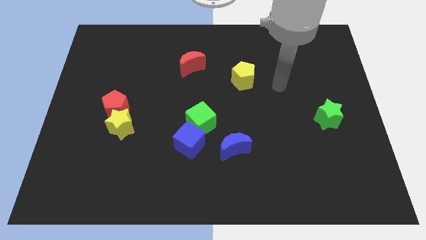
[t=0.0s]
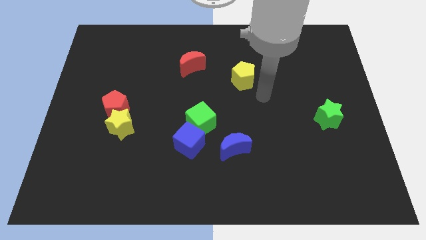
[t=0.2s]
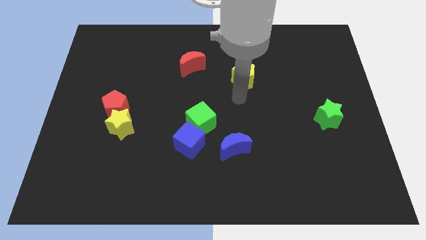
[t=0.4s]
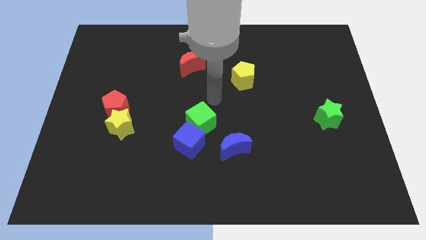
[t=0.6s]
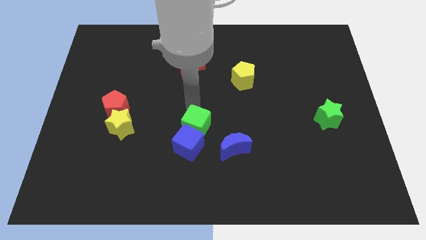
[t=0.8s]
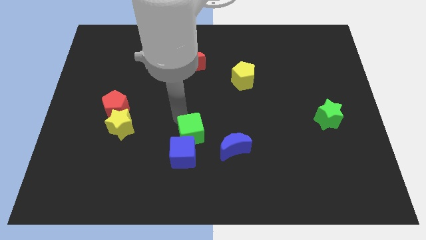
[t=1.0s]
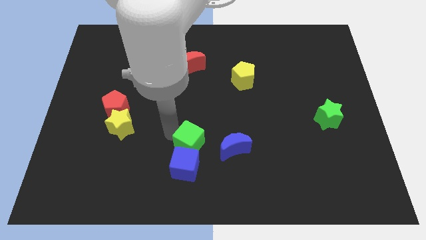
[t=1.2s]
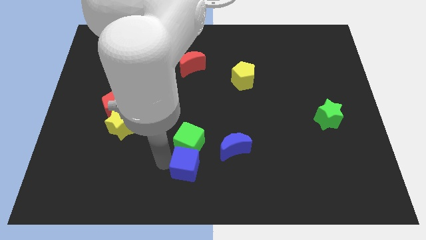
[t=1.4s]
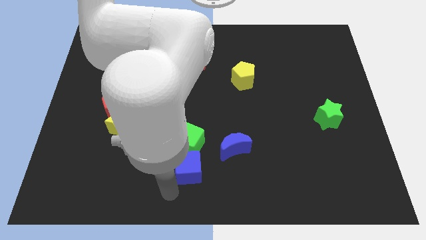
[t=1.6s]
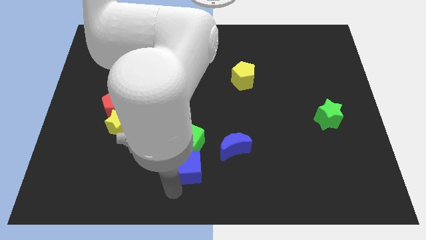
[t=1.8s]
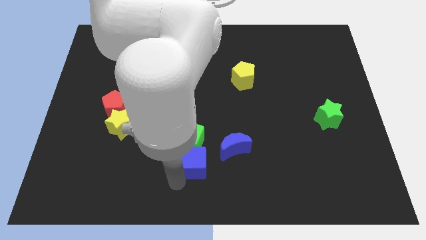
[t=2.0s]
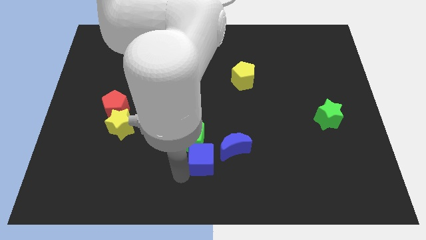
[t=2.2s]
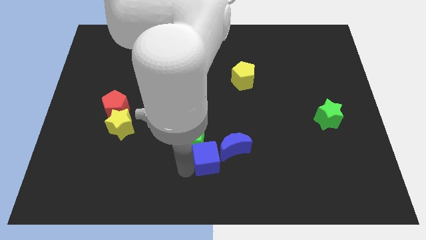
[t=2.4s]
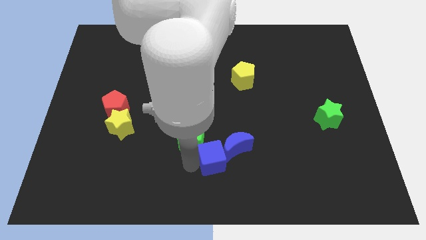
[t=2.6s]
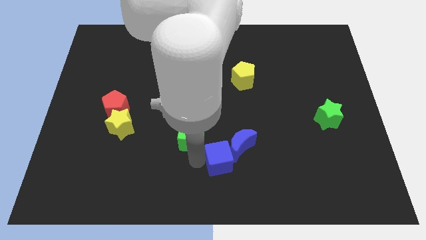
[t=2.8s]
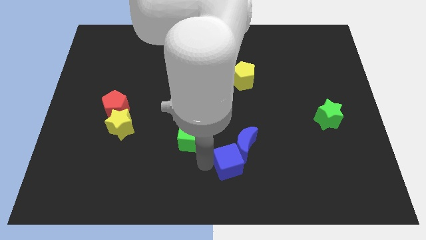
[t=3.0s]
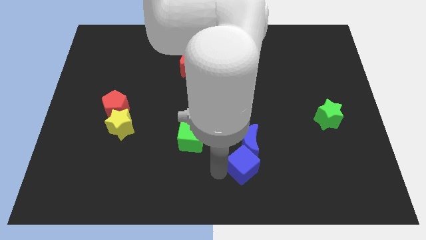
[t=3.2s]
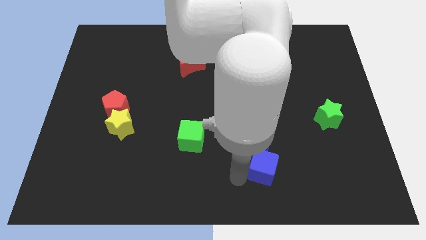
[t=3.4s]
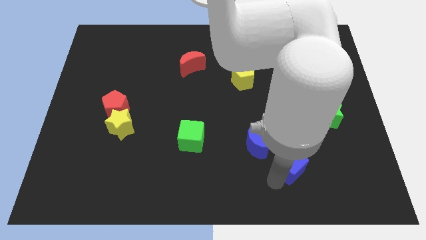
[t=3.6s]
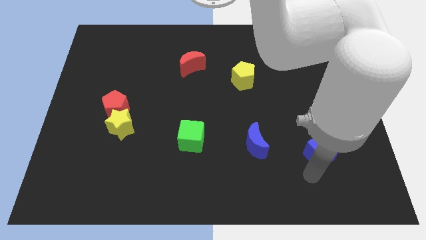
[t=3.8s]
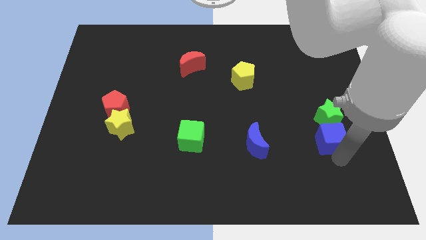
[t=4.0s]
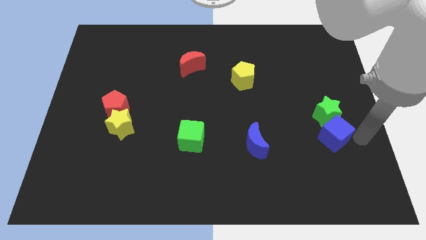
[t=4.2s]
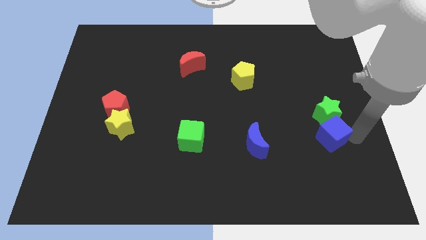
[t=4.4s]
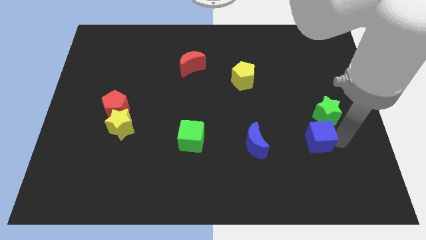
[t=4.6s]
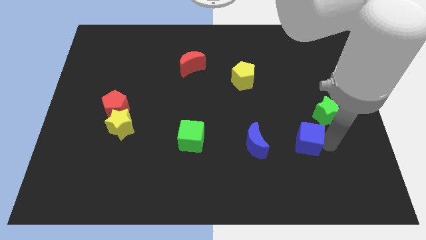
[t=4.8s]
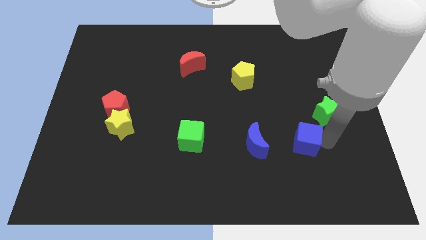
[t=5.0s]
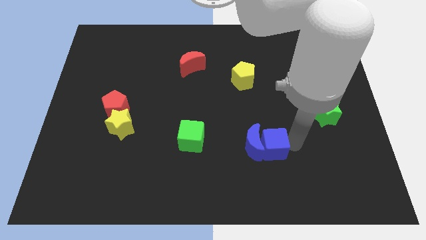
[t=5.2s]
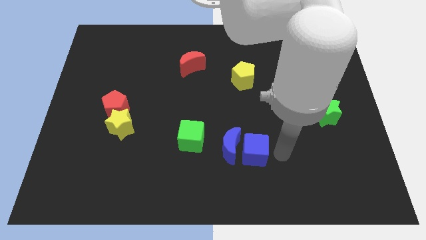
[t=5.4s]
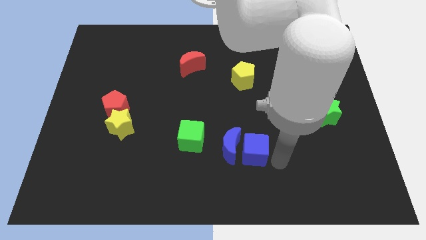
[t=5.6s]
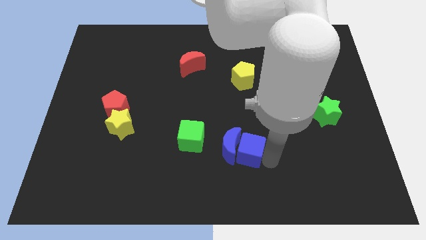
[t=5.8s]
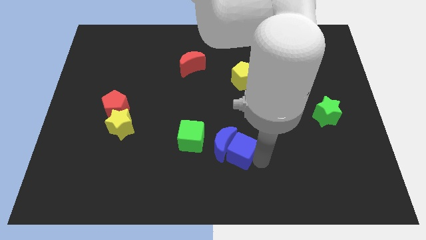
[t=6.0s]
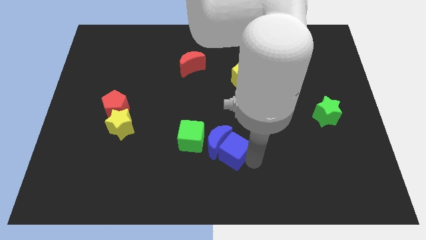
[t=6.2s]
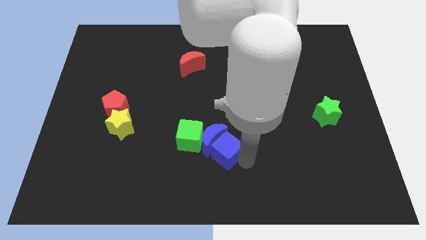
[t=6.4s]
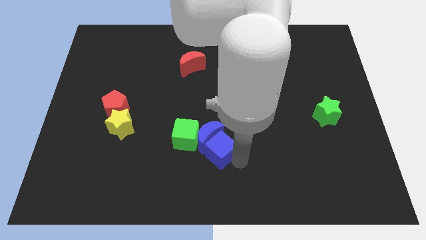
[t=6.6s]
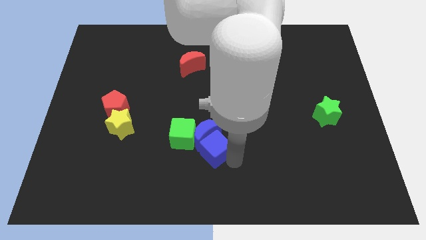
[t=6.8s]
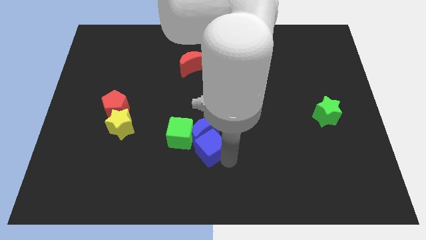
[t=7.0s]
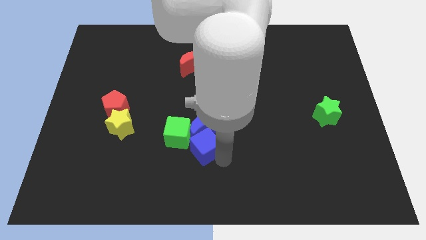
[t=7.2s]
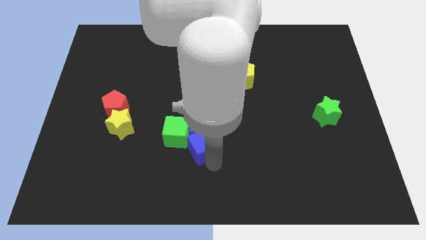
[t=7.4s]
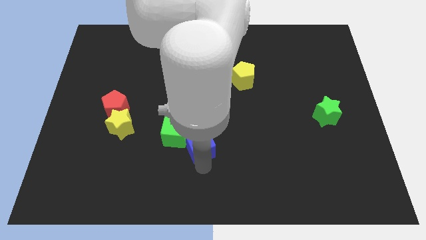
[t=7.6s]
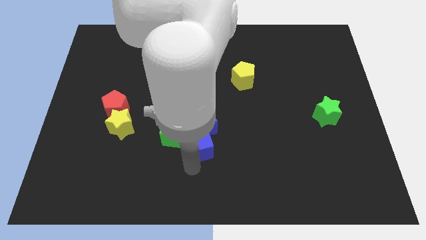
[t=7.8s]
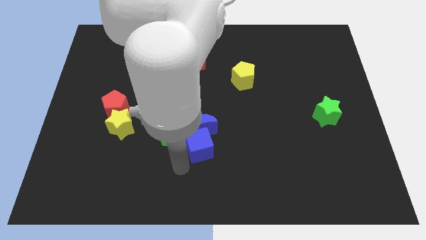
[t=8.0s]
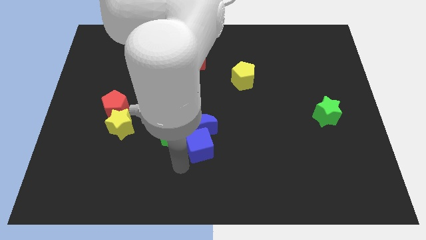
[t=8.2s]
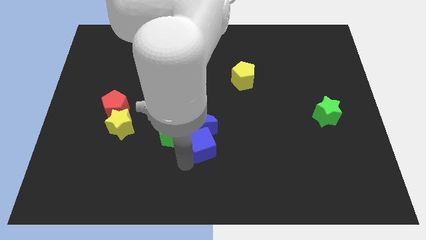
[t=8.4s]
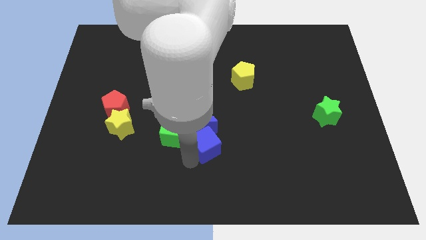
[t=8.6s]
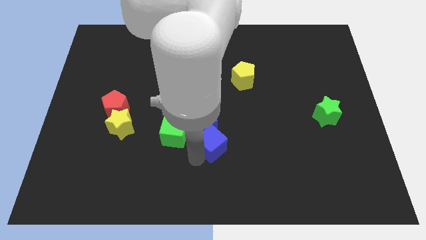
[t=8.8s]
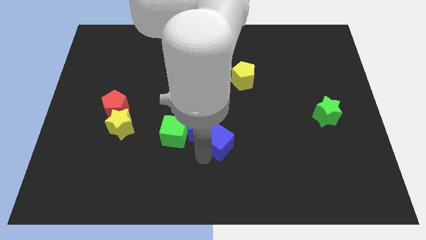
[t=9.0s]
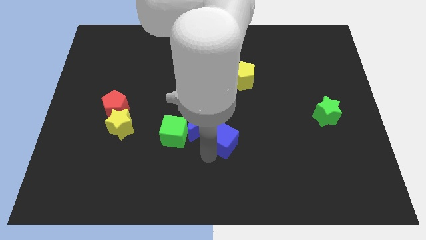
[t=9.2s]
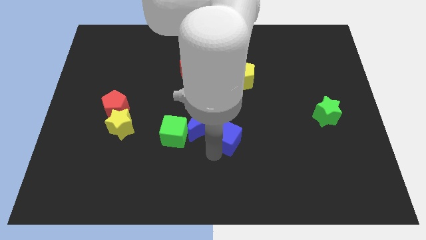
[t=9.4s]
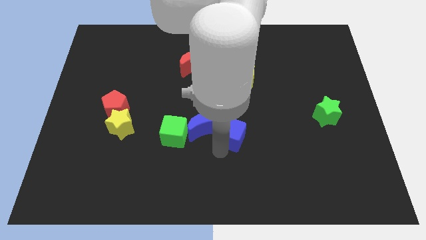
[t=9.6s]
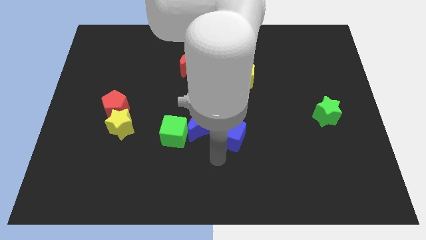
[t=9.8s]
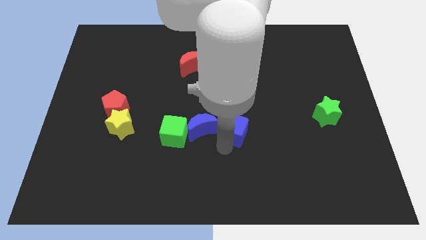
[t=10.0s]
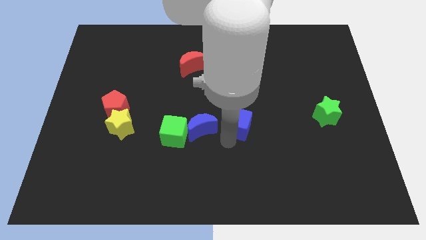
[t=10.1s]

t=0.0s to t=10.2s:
slide the blue cube to the bottom side of the yellow pentagon

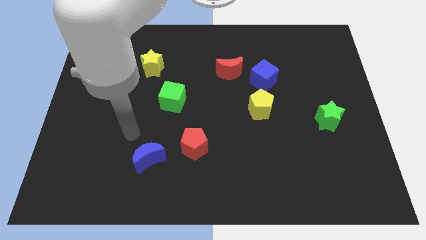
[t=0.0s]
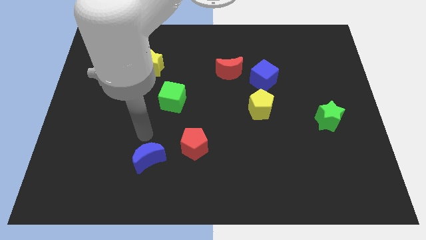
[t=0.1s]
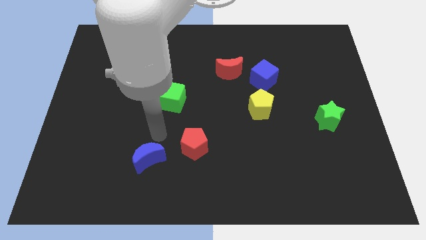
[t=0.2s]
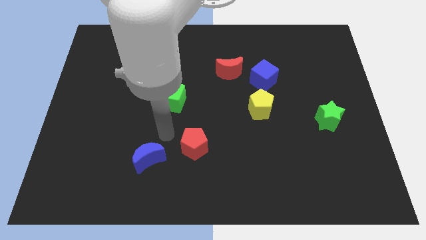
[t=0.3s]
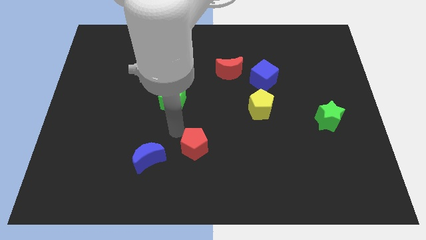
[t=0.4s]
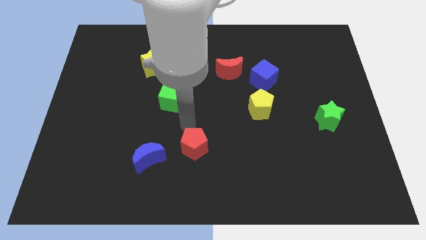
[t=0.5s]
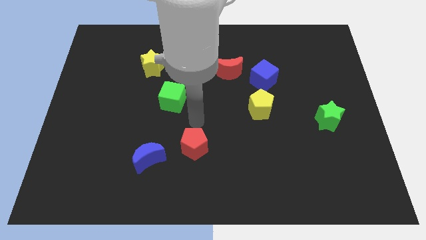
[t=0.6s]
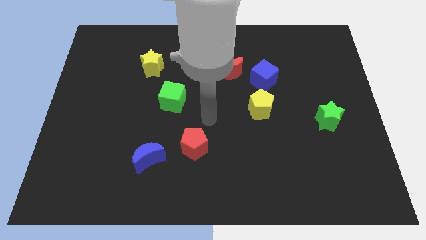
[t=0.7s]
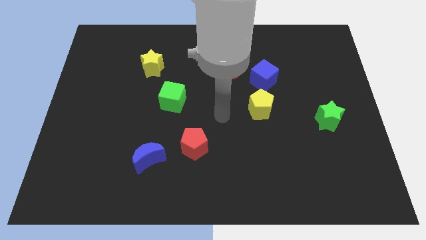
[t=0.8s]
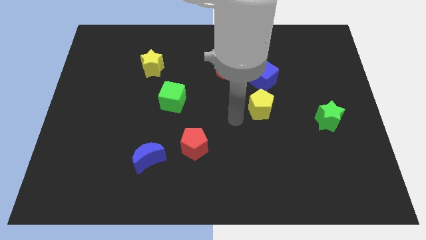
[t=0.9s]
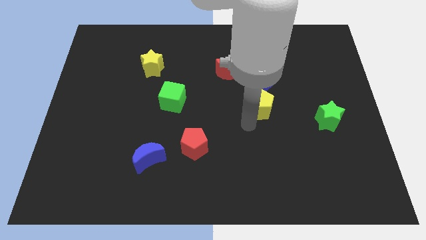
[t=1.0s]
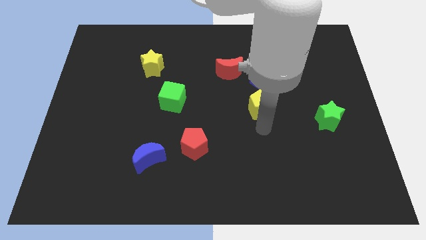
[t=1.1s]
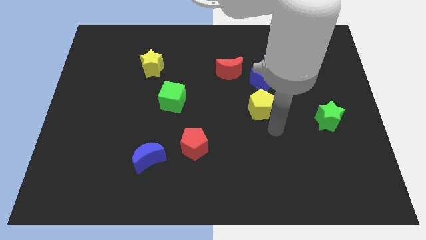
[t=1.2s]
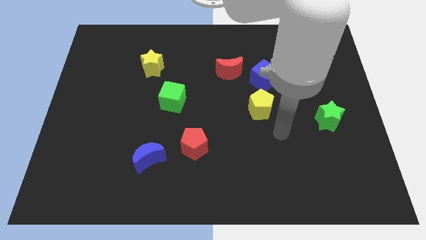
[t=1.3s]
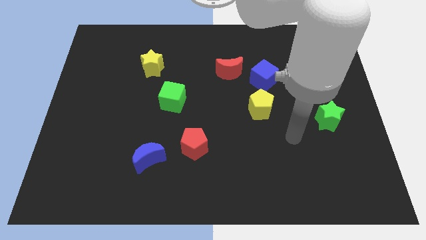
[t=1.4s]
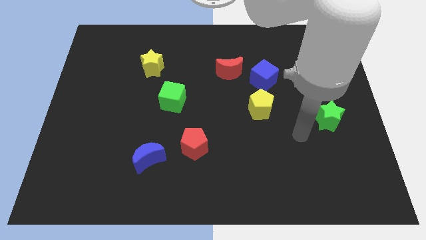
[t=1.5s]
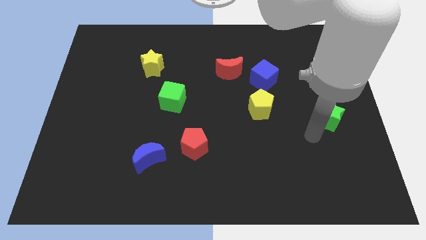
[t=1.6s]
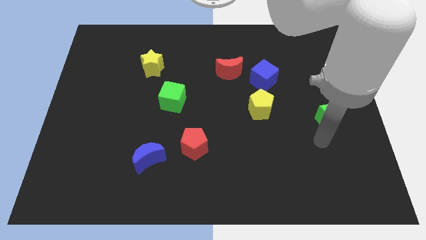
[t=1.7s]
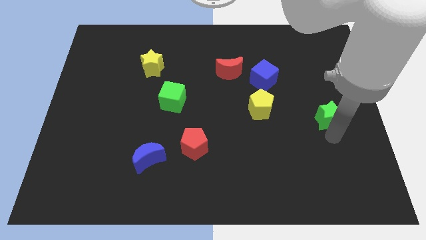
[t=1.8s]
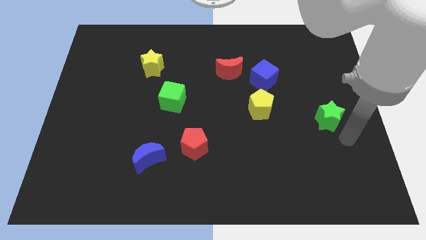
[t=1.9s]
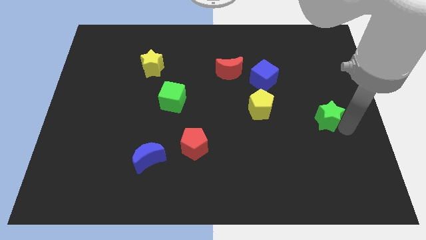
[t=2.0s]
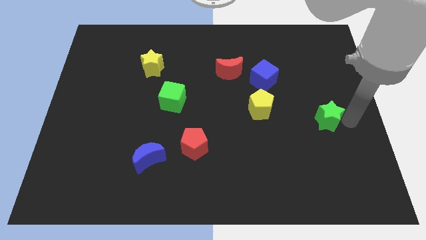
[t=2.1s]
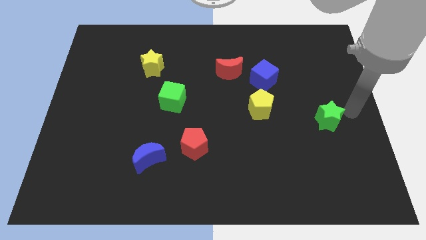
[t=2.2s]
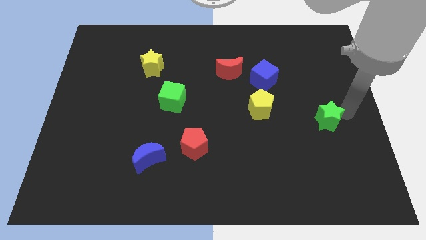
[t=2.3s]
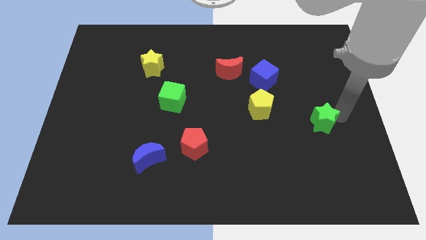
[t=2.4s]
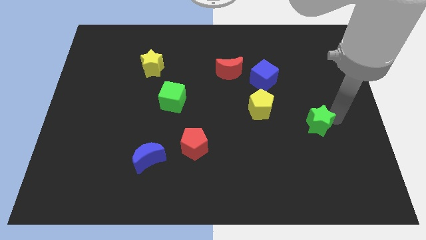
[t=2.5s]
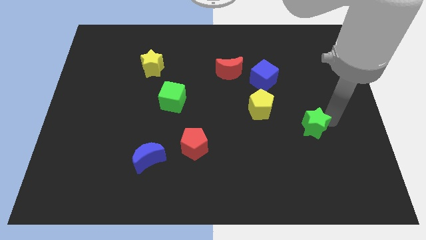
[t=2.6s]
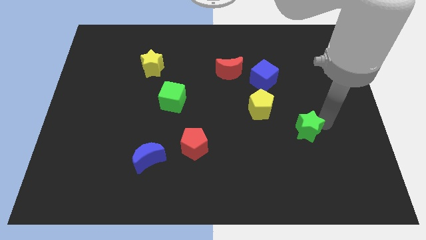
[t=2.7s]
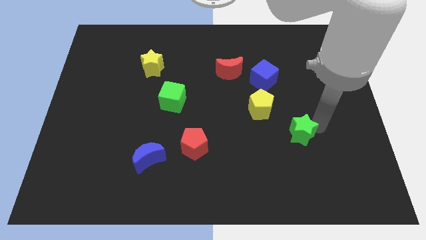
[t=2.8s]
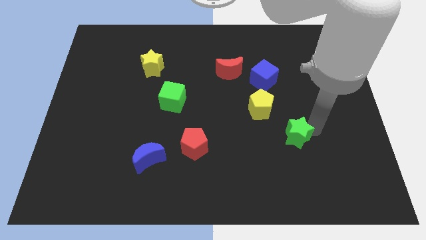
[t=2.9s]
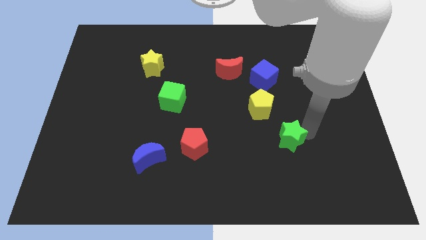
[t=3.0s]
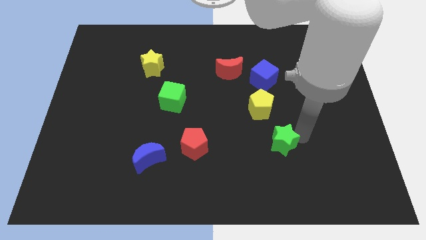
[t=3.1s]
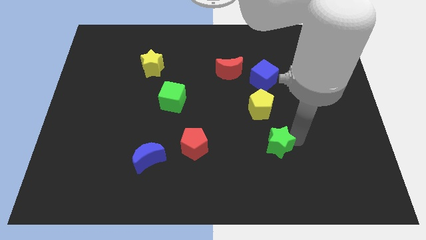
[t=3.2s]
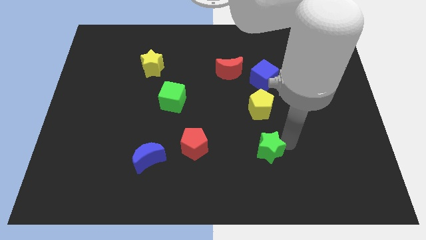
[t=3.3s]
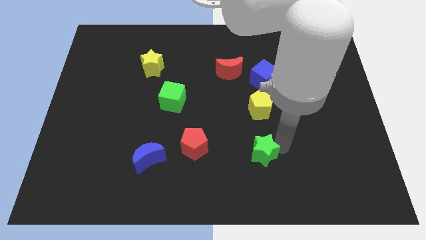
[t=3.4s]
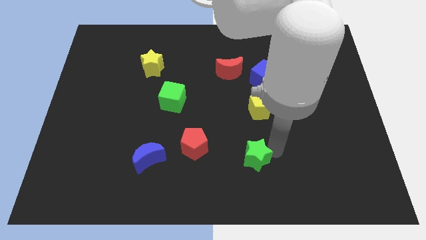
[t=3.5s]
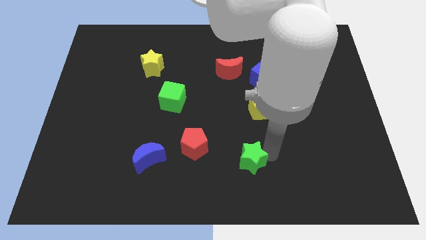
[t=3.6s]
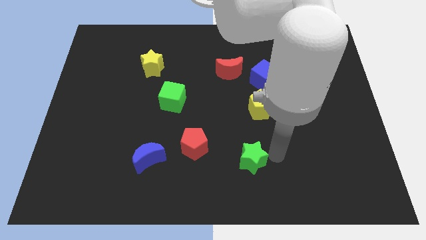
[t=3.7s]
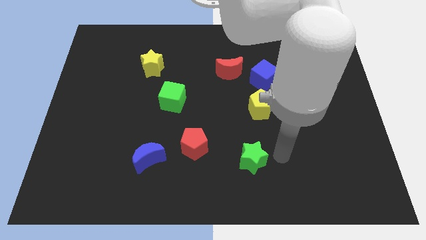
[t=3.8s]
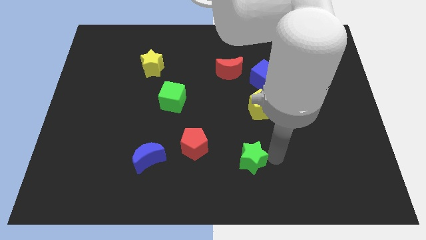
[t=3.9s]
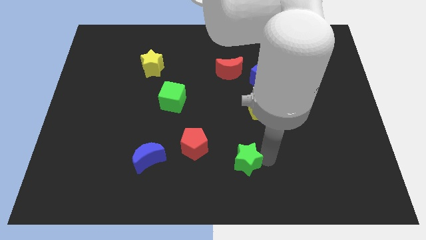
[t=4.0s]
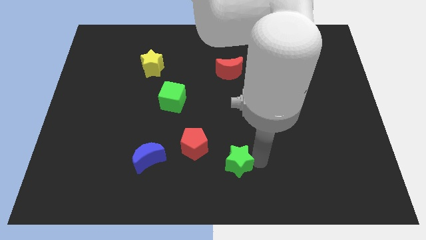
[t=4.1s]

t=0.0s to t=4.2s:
put the green star to the bottom right of the red pentagon
